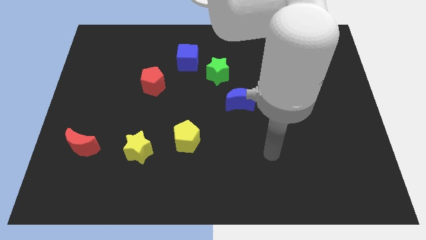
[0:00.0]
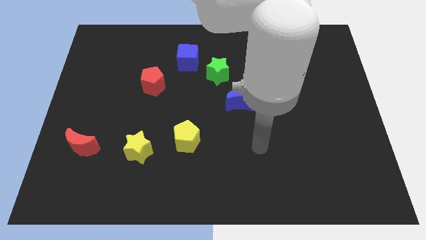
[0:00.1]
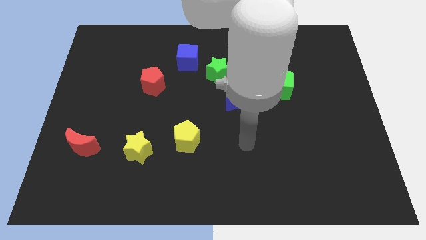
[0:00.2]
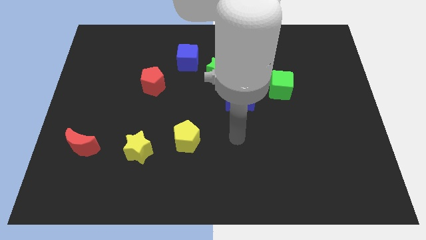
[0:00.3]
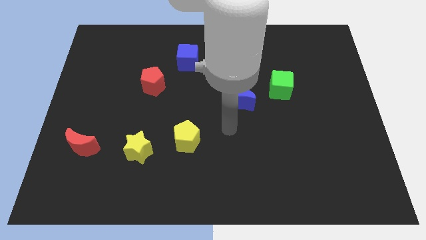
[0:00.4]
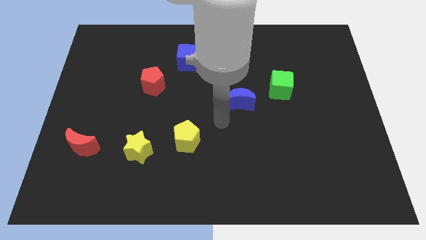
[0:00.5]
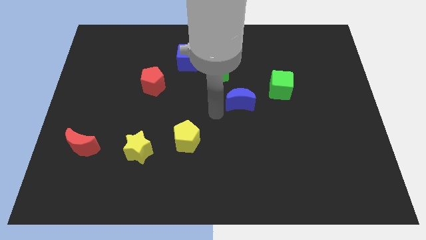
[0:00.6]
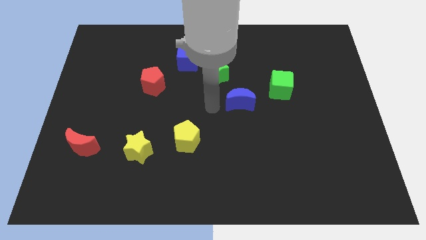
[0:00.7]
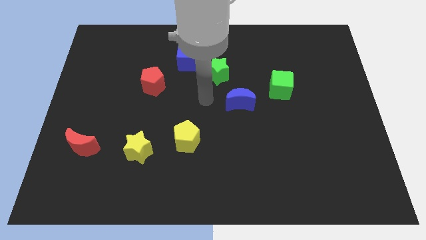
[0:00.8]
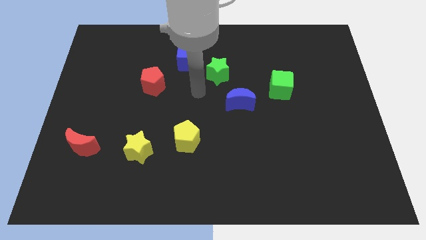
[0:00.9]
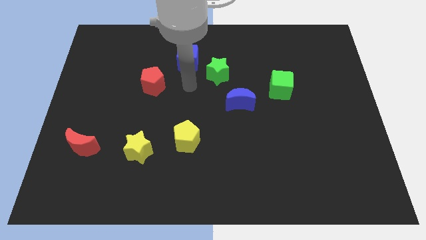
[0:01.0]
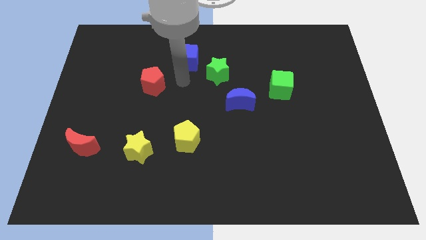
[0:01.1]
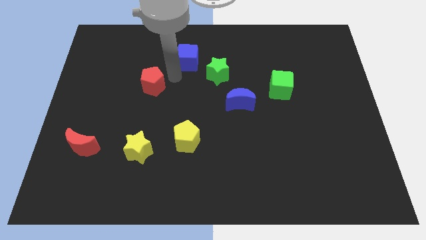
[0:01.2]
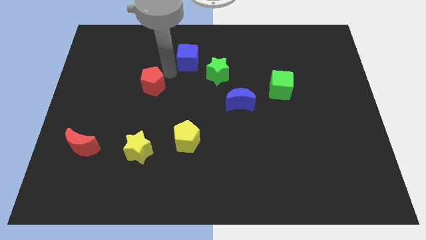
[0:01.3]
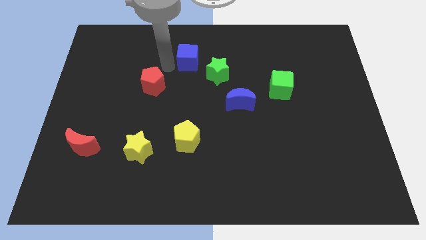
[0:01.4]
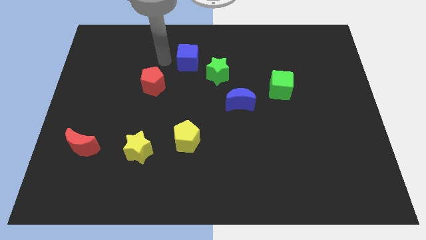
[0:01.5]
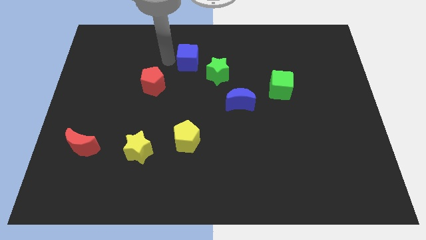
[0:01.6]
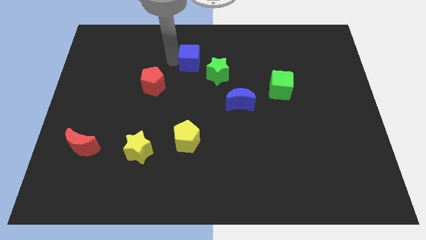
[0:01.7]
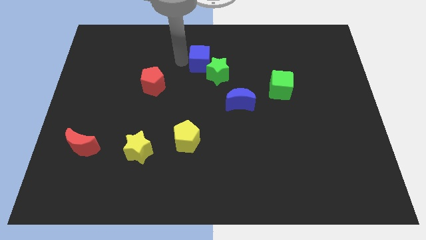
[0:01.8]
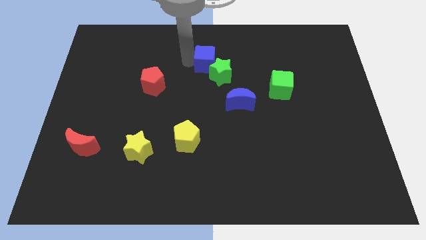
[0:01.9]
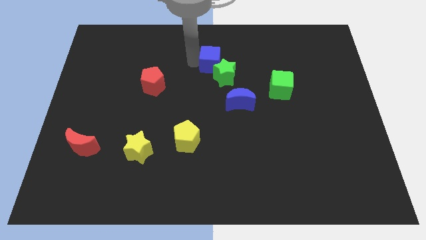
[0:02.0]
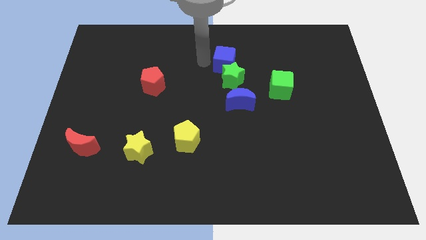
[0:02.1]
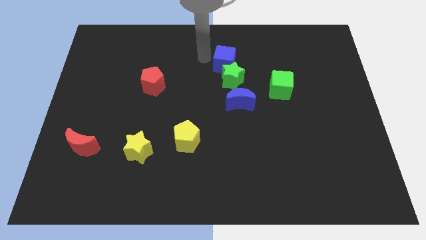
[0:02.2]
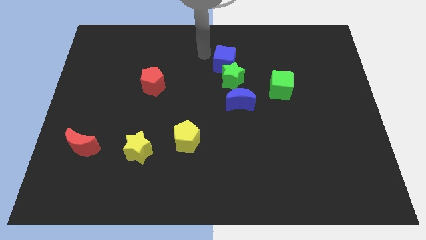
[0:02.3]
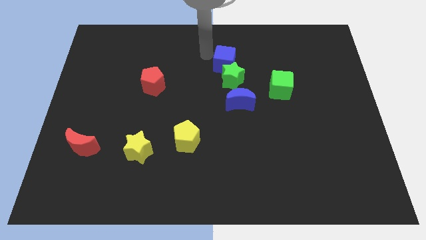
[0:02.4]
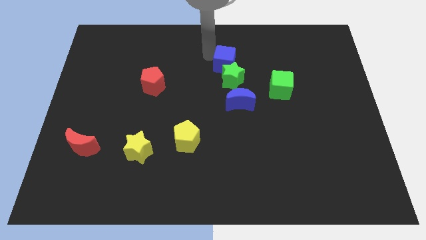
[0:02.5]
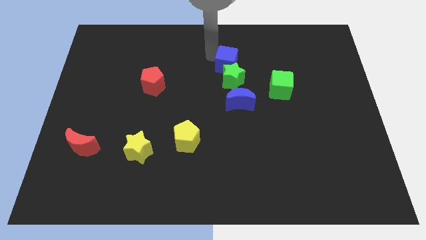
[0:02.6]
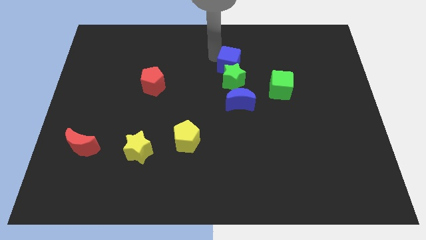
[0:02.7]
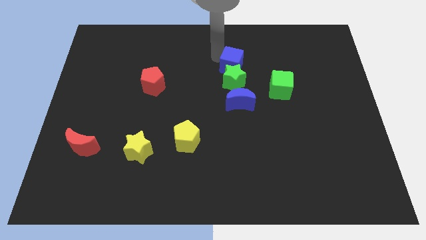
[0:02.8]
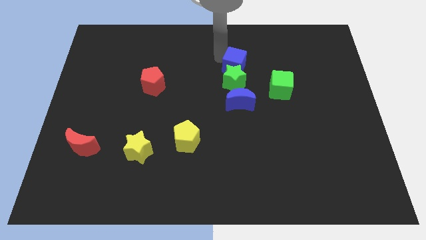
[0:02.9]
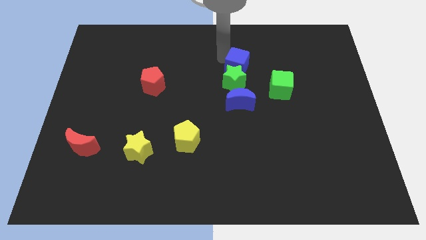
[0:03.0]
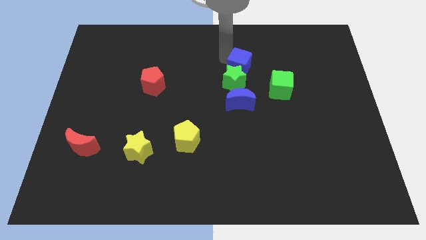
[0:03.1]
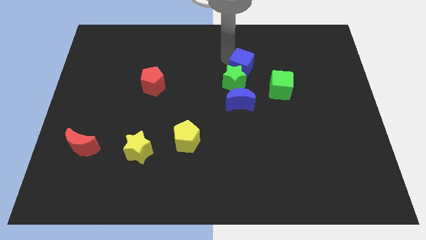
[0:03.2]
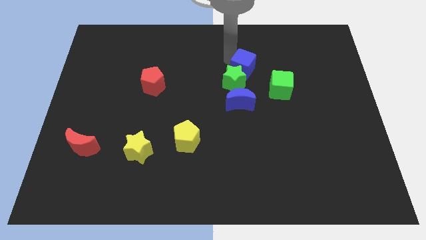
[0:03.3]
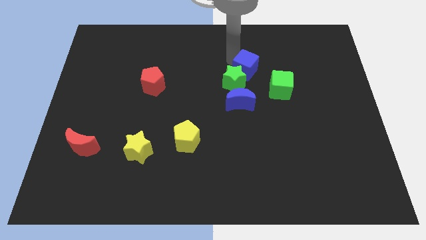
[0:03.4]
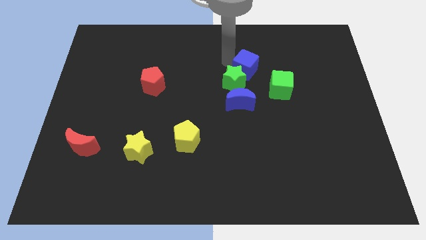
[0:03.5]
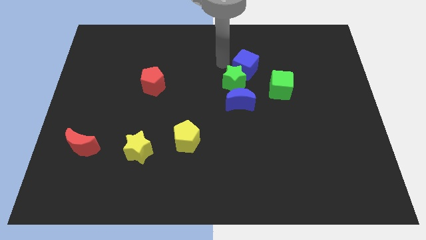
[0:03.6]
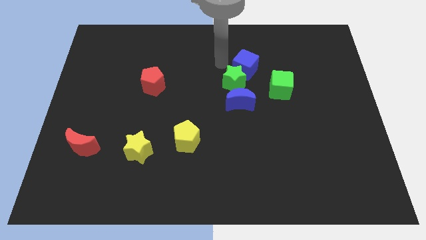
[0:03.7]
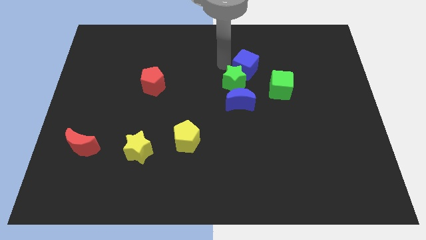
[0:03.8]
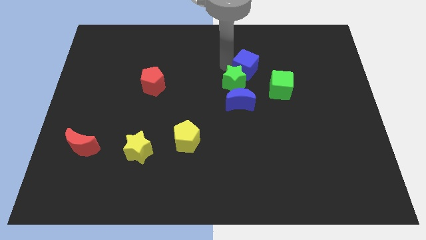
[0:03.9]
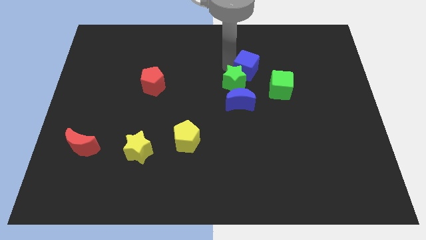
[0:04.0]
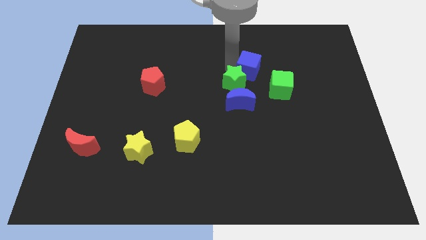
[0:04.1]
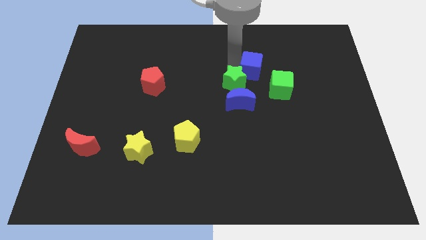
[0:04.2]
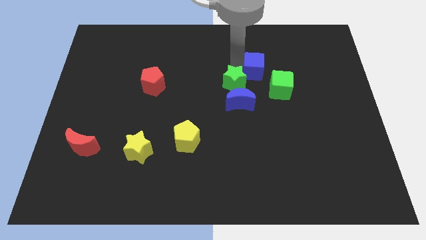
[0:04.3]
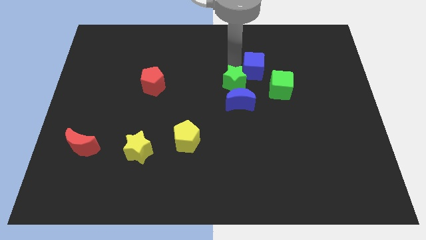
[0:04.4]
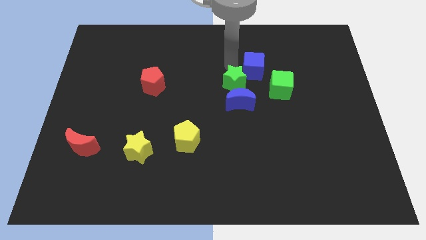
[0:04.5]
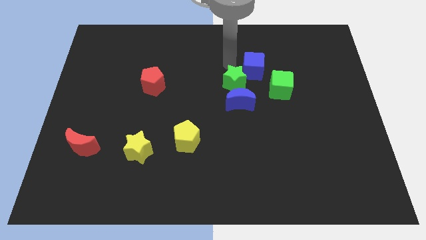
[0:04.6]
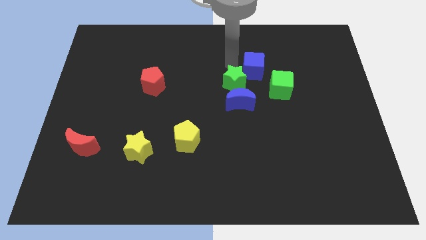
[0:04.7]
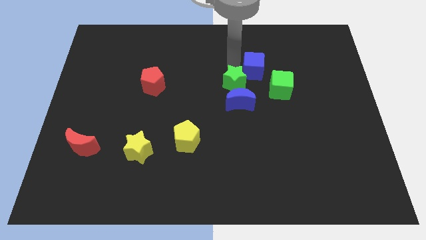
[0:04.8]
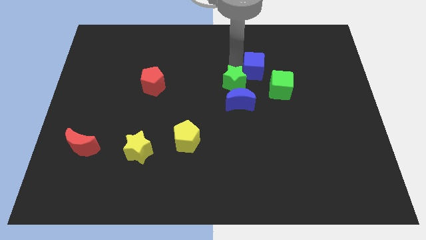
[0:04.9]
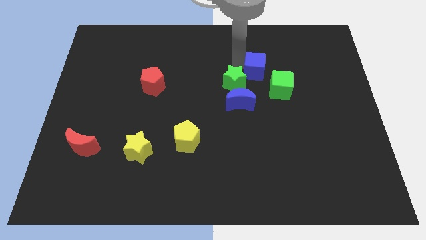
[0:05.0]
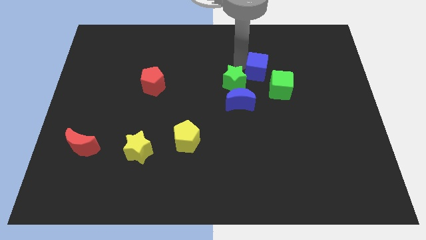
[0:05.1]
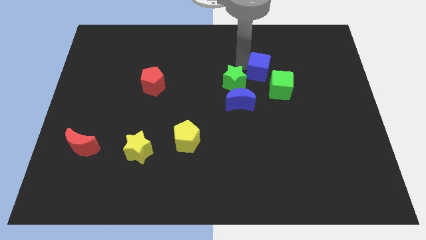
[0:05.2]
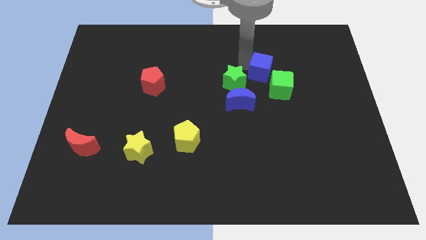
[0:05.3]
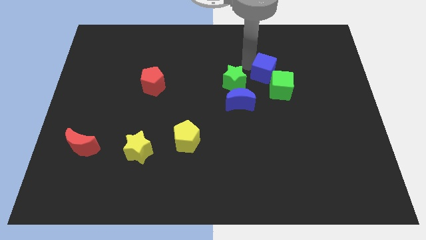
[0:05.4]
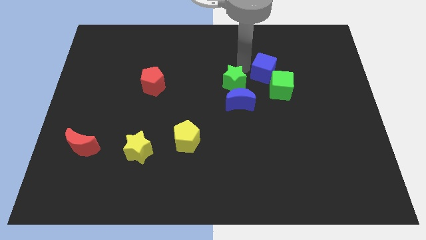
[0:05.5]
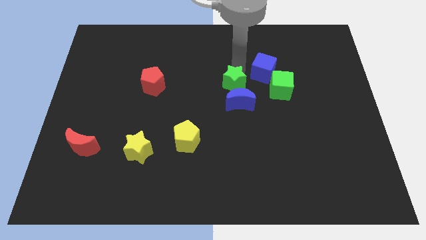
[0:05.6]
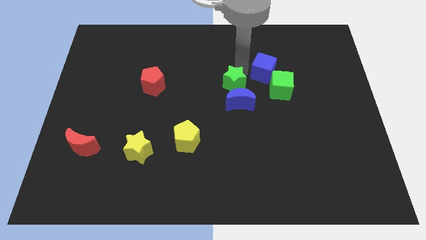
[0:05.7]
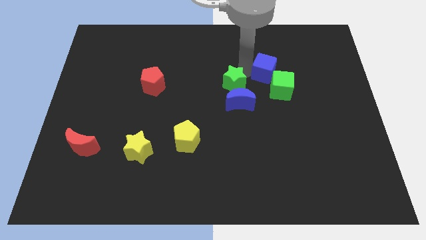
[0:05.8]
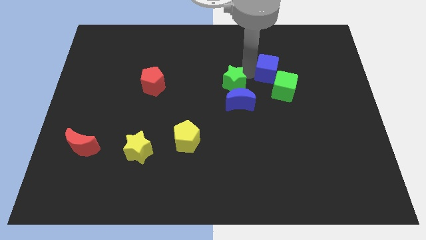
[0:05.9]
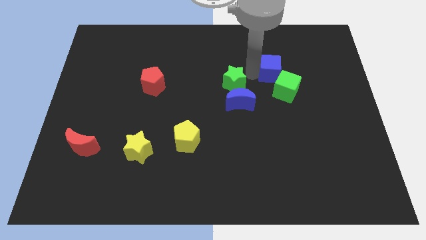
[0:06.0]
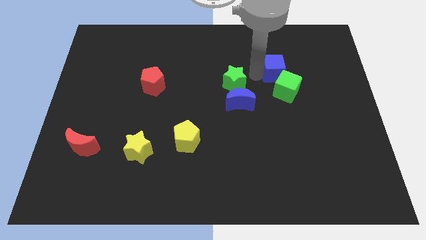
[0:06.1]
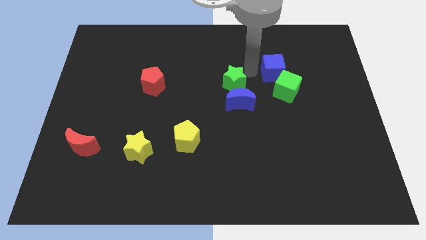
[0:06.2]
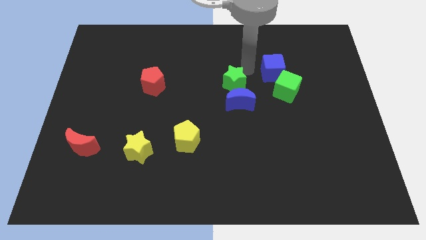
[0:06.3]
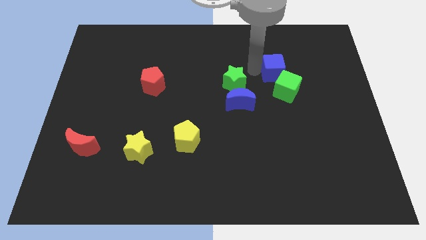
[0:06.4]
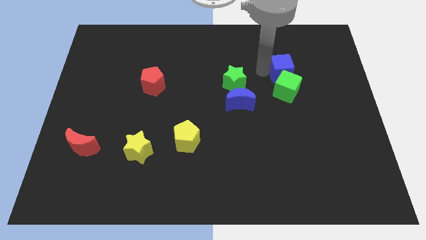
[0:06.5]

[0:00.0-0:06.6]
move the blue cube to the top right side of the green cube

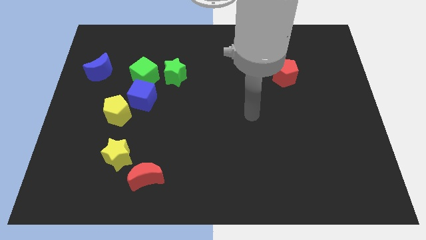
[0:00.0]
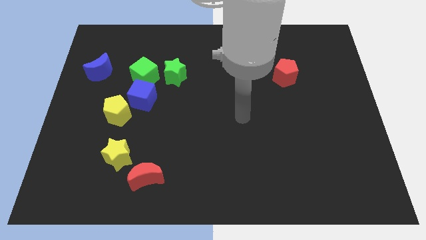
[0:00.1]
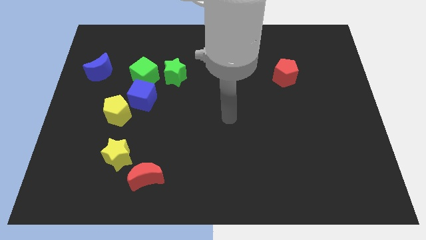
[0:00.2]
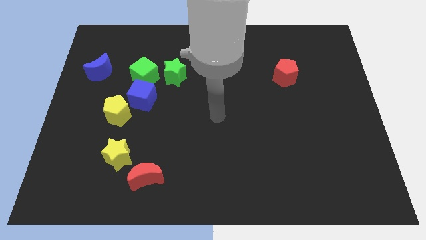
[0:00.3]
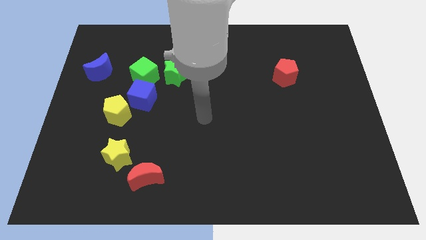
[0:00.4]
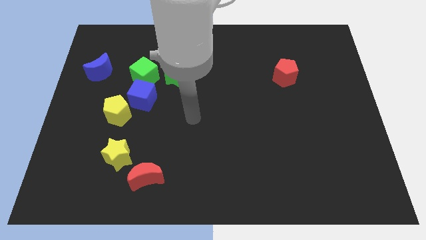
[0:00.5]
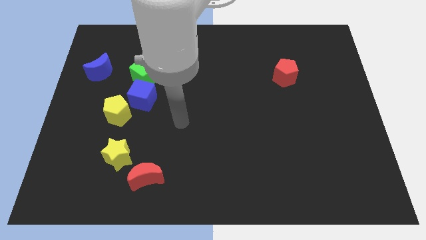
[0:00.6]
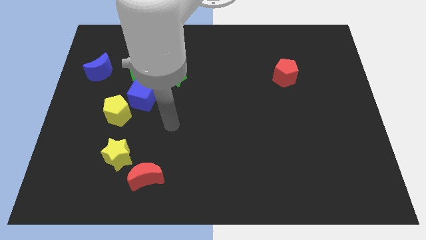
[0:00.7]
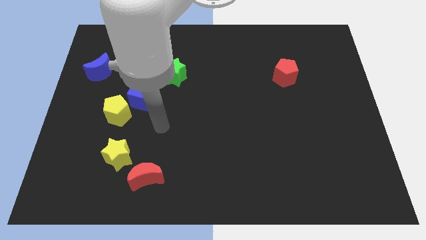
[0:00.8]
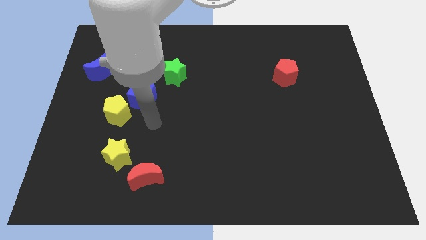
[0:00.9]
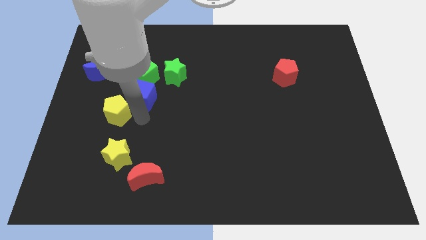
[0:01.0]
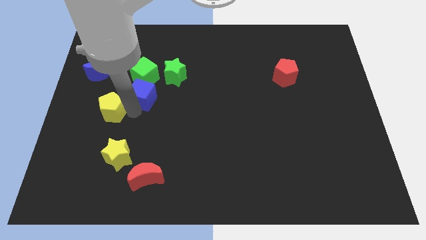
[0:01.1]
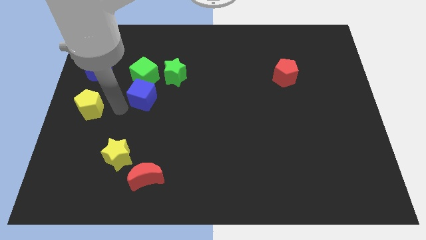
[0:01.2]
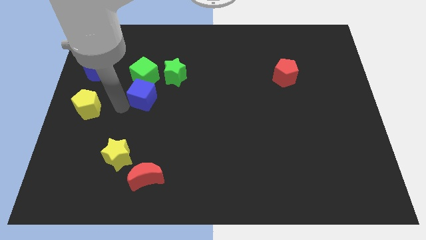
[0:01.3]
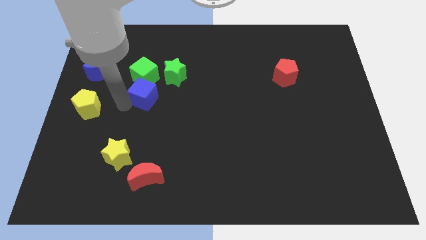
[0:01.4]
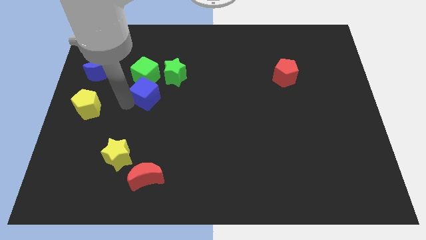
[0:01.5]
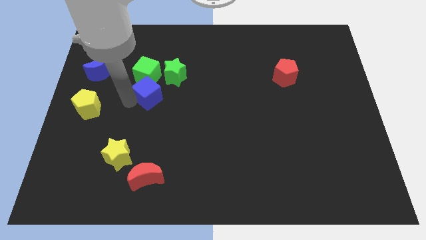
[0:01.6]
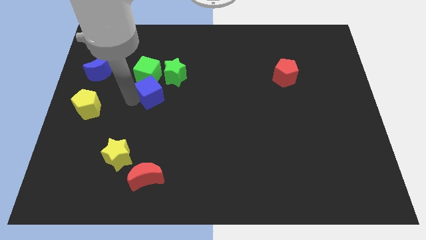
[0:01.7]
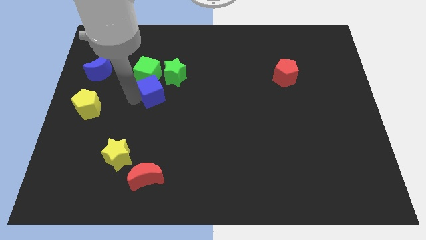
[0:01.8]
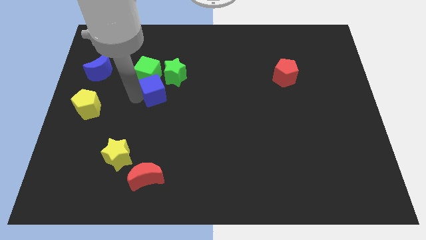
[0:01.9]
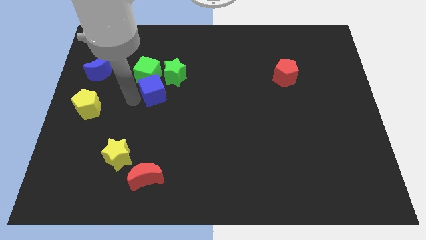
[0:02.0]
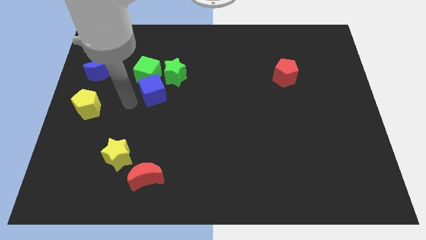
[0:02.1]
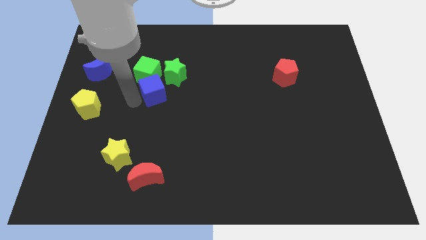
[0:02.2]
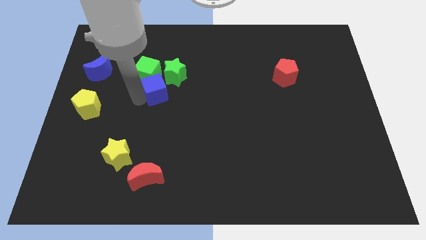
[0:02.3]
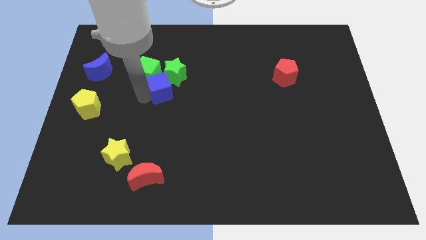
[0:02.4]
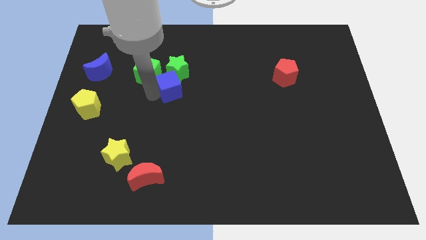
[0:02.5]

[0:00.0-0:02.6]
push the blue cube to the right of the green cube
